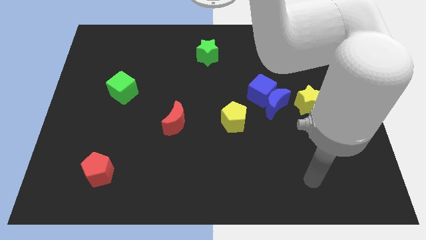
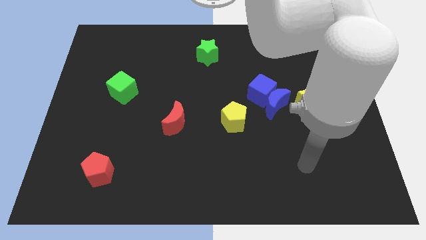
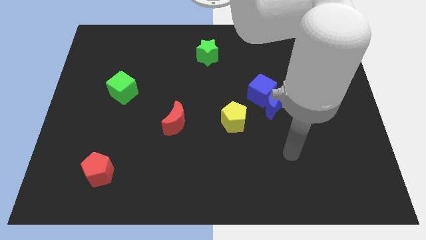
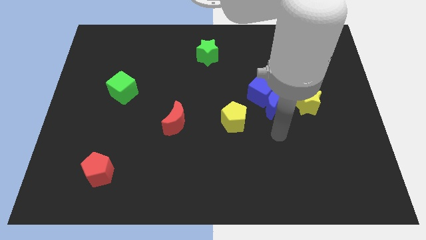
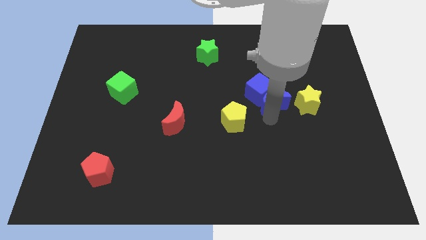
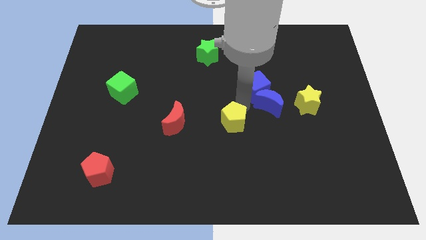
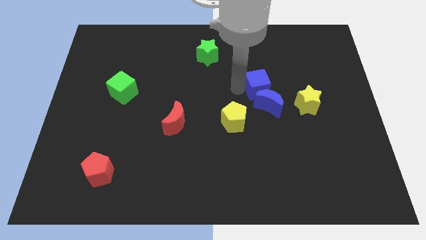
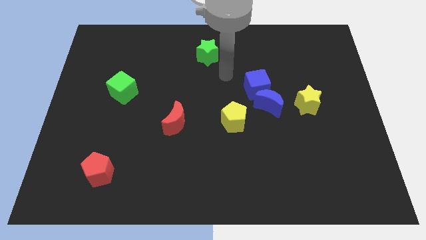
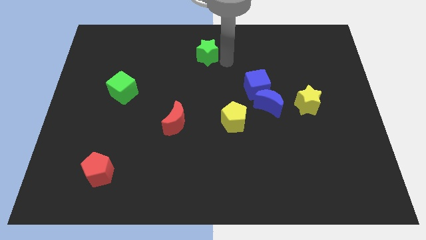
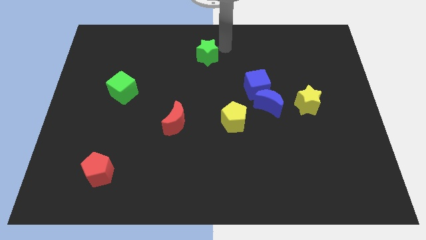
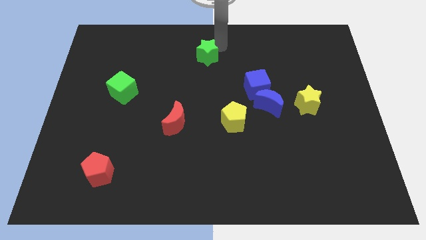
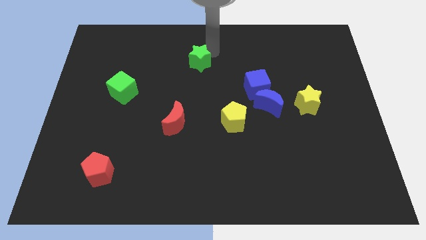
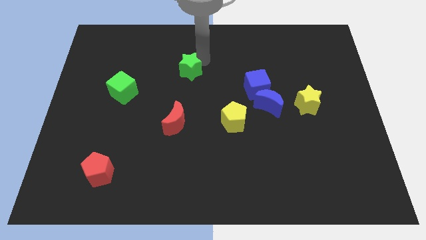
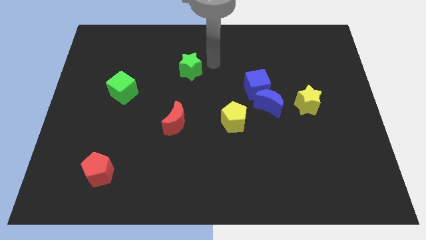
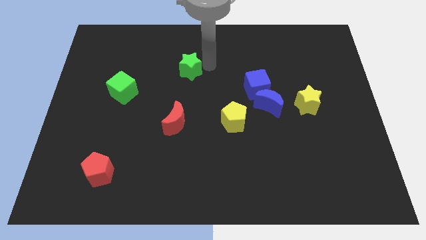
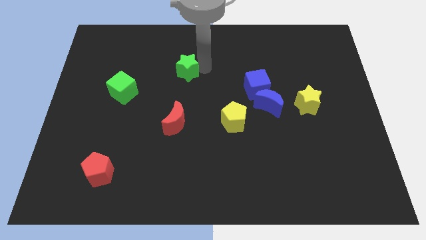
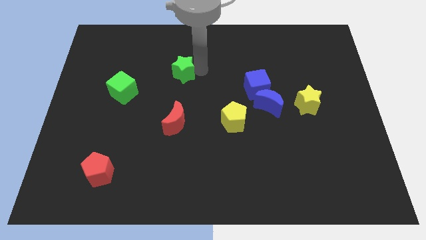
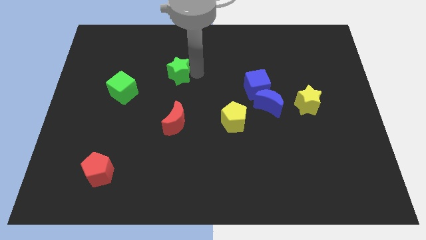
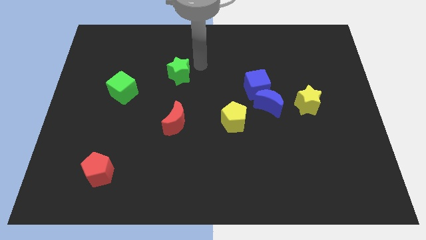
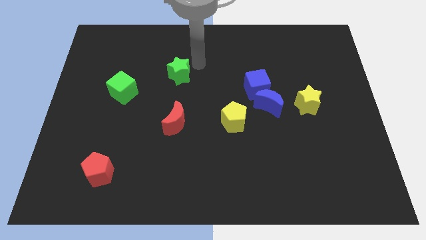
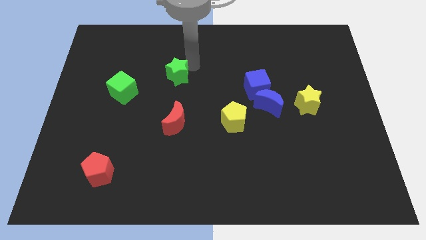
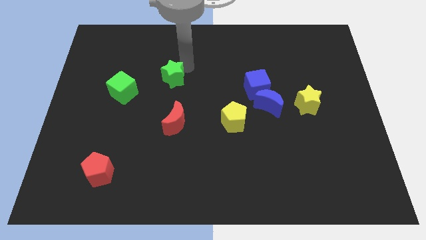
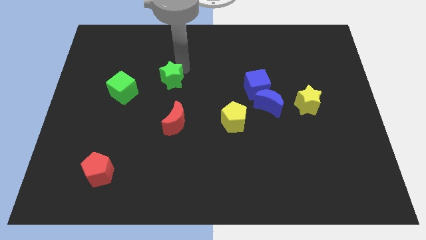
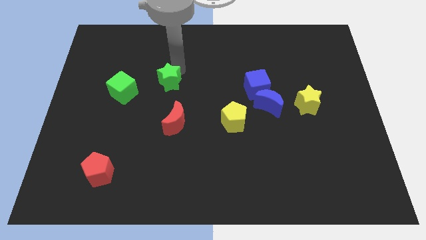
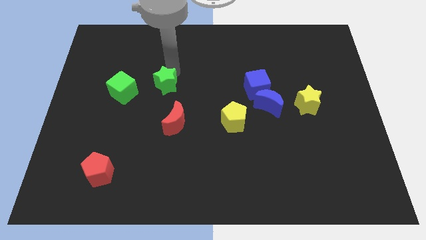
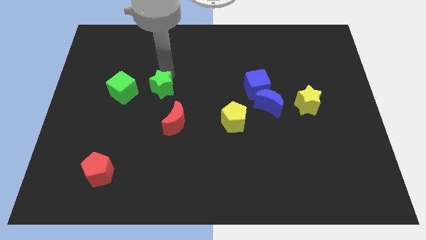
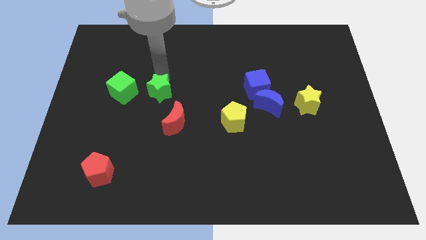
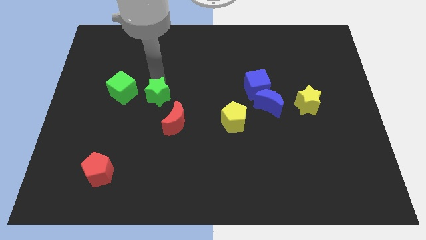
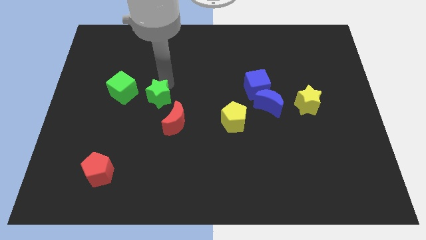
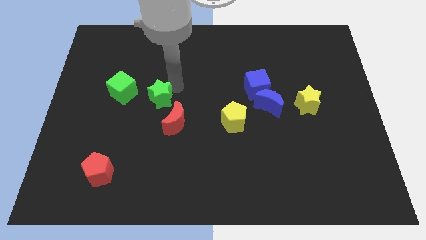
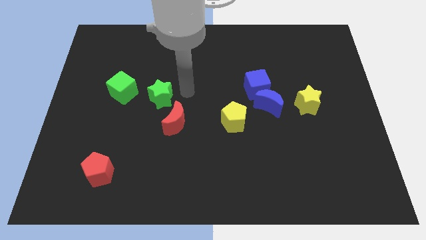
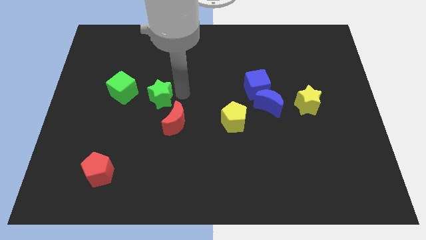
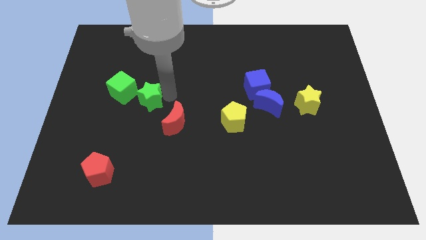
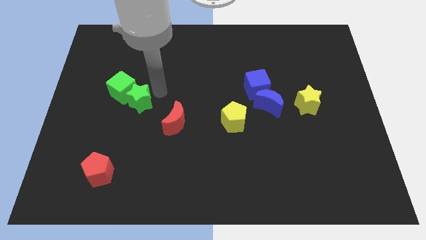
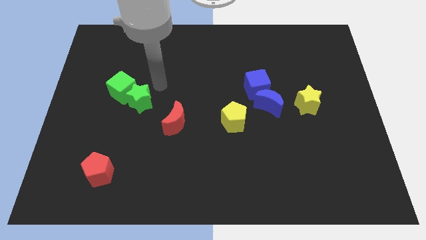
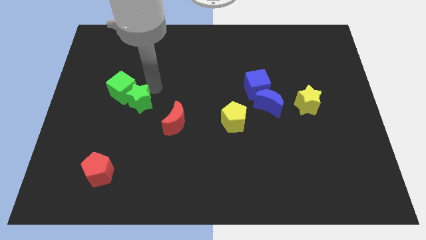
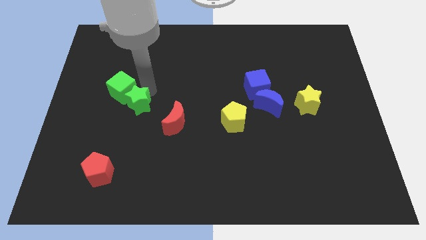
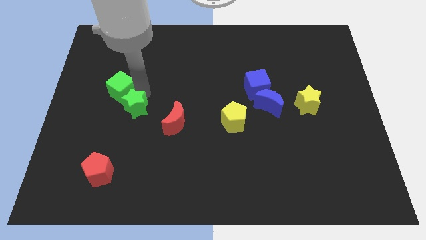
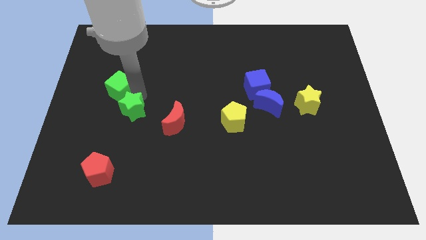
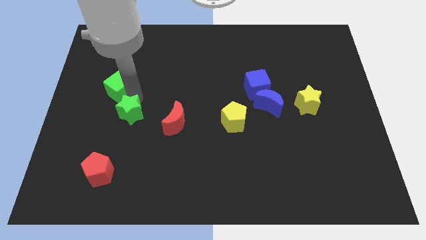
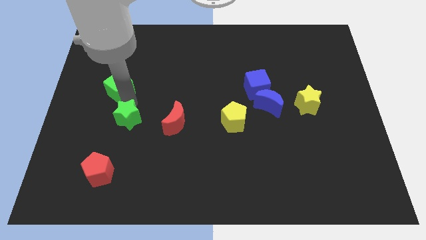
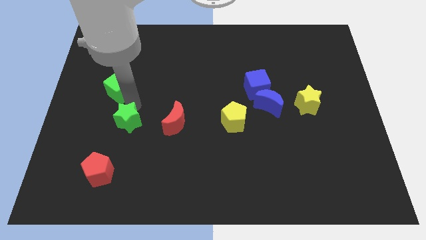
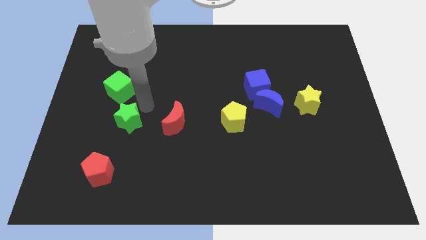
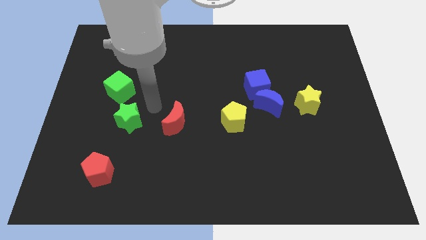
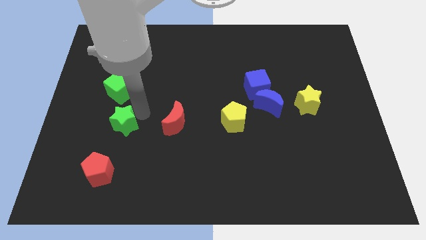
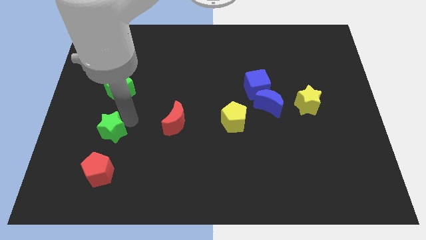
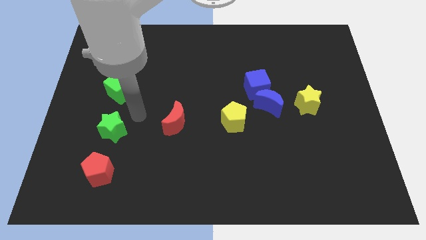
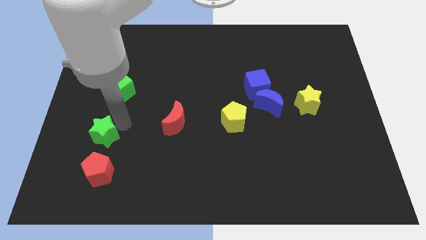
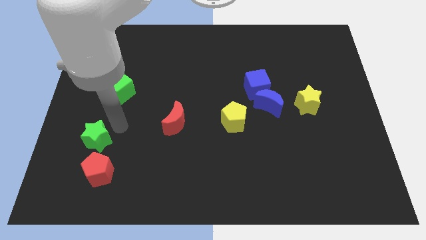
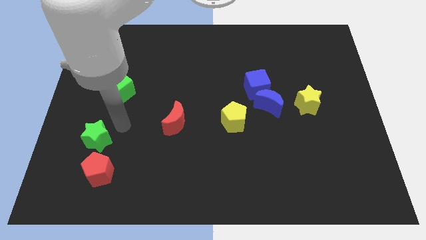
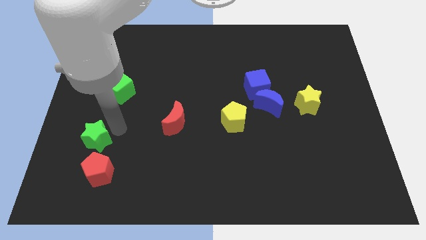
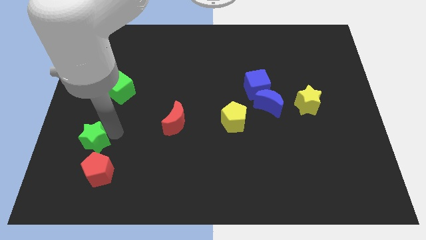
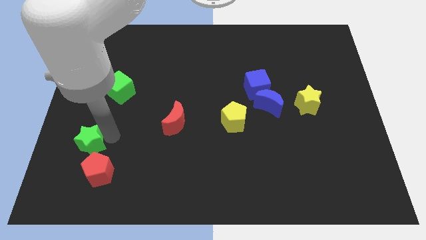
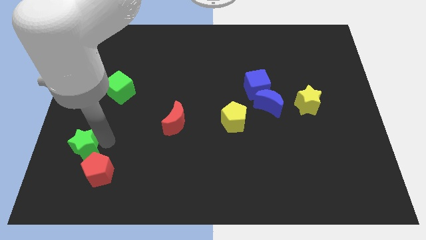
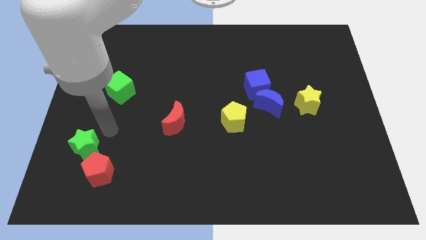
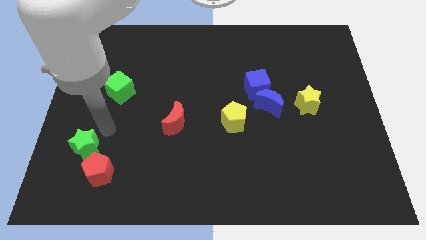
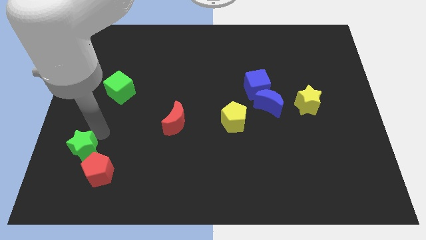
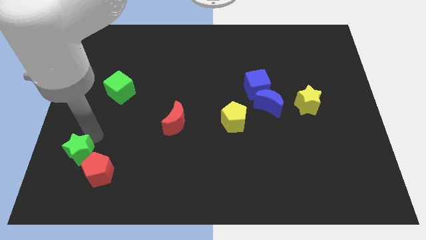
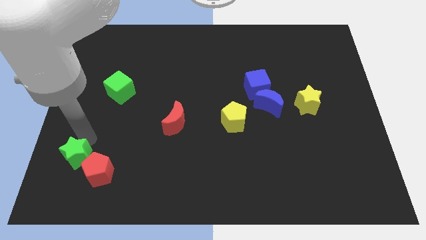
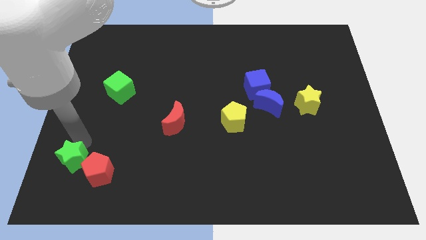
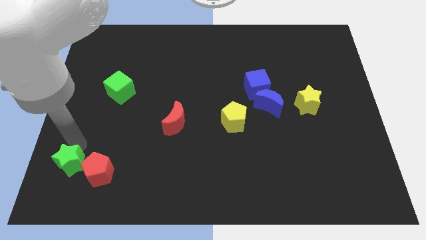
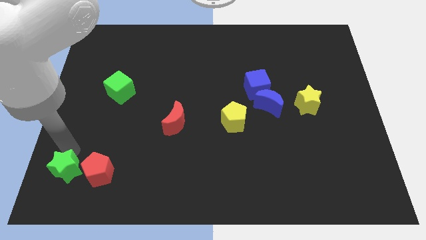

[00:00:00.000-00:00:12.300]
move the green star to the bottom left
